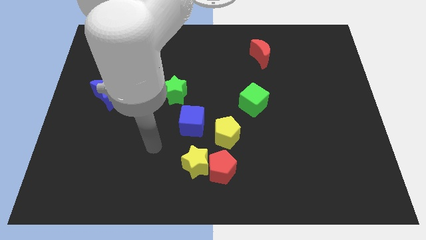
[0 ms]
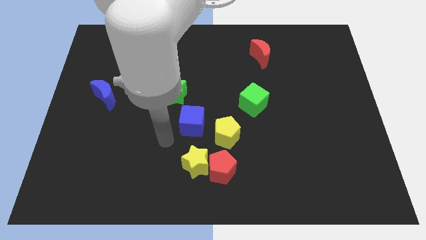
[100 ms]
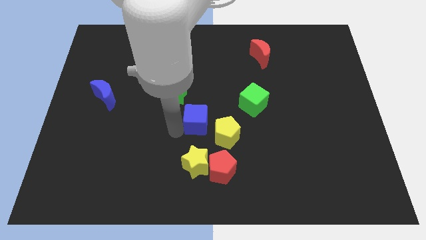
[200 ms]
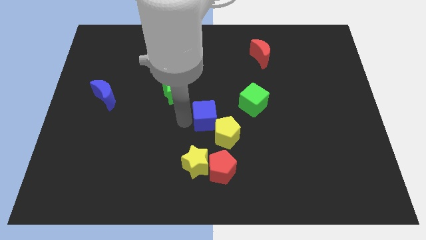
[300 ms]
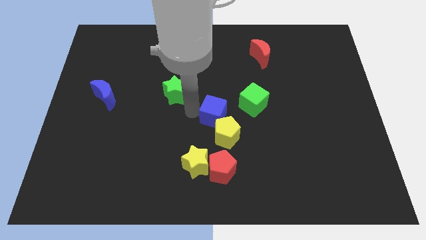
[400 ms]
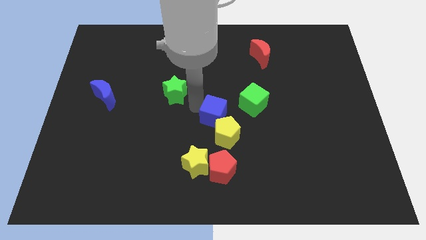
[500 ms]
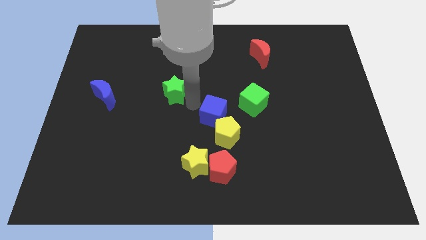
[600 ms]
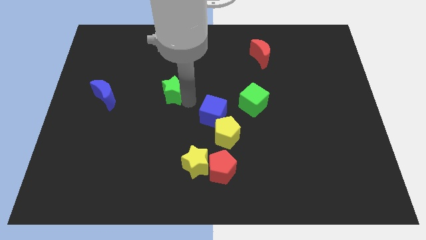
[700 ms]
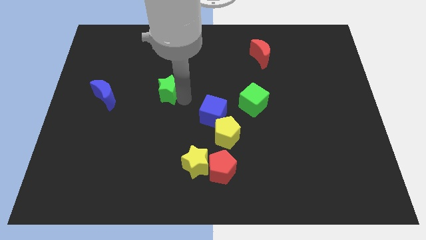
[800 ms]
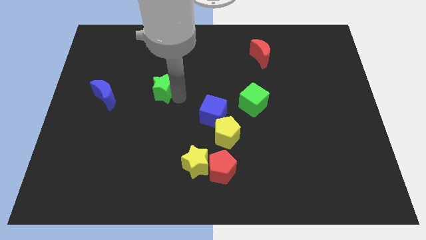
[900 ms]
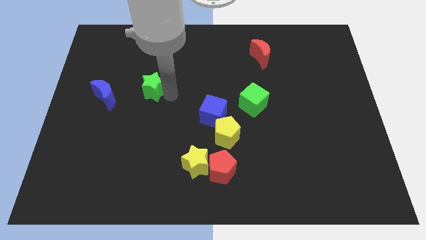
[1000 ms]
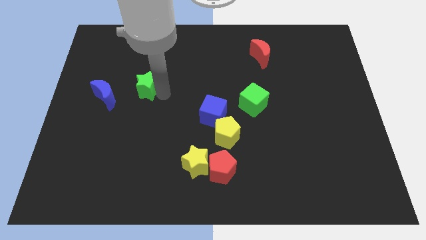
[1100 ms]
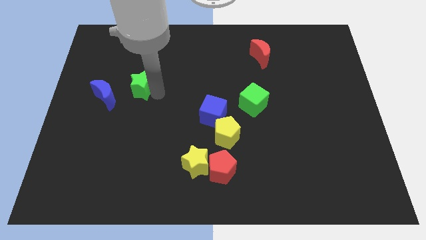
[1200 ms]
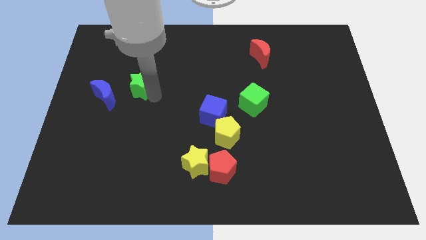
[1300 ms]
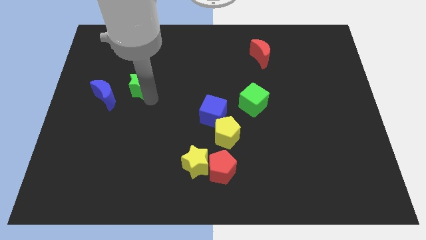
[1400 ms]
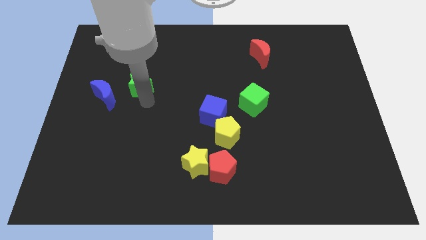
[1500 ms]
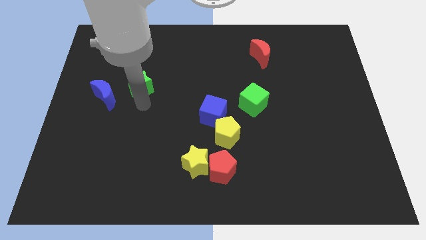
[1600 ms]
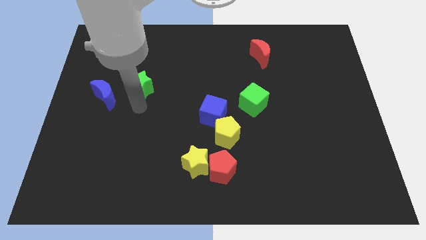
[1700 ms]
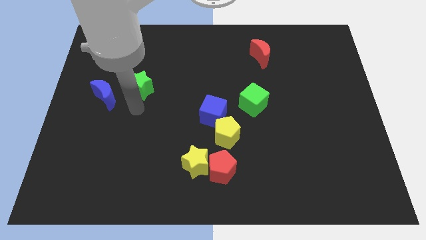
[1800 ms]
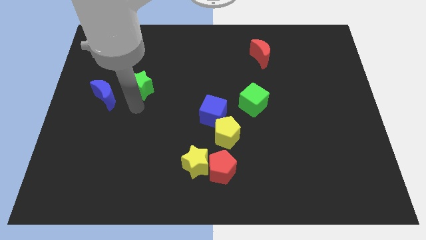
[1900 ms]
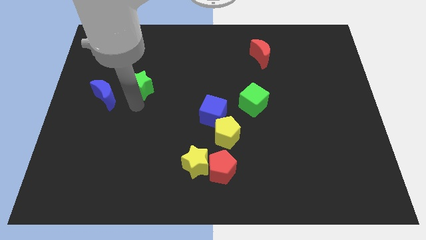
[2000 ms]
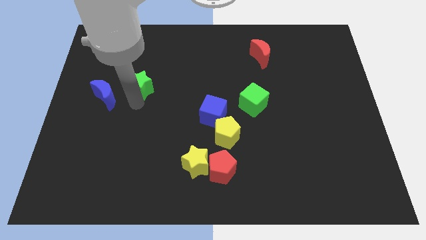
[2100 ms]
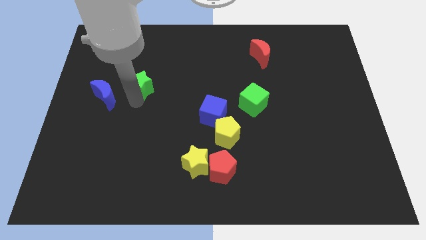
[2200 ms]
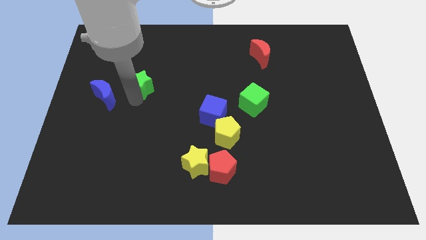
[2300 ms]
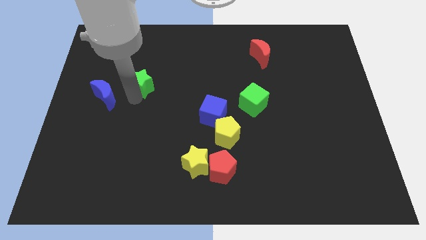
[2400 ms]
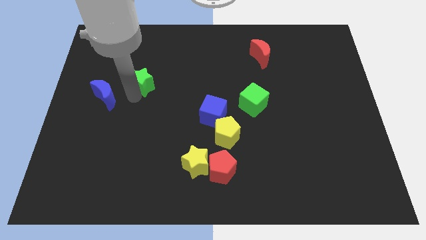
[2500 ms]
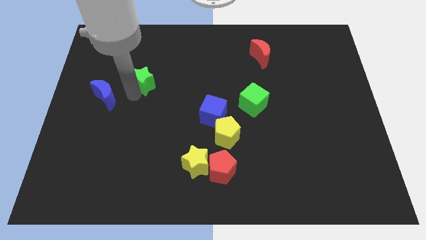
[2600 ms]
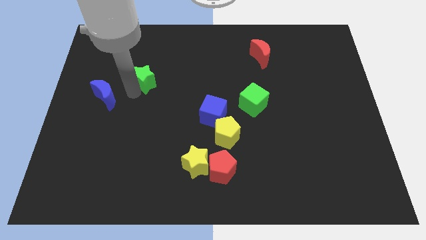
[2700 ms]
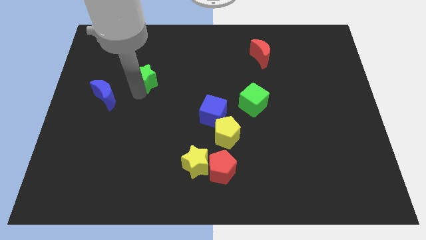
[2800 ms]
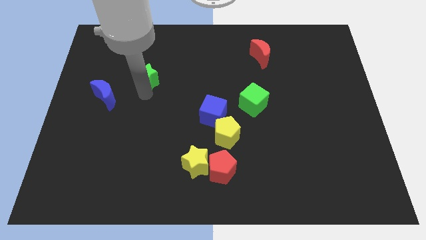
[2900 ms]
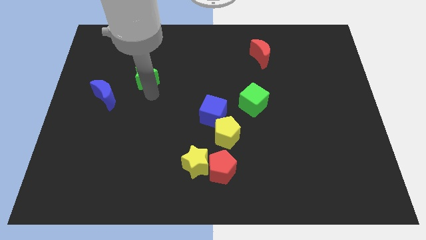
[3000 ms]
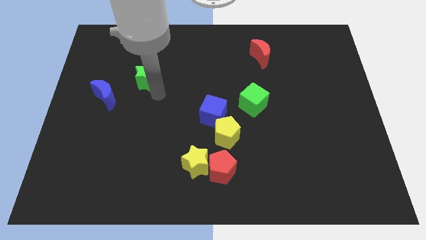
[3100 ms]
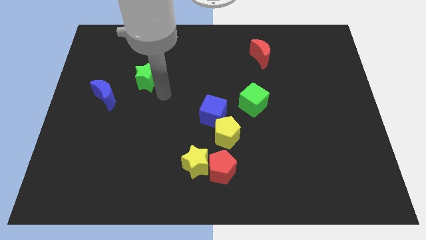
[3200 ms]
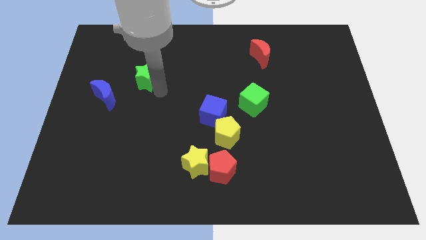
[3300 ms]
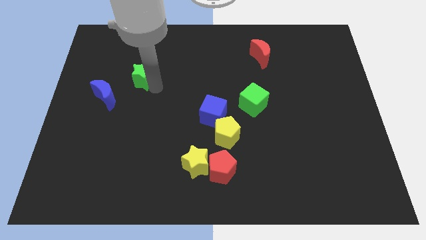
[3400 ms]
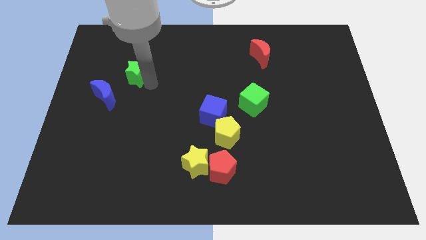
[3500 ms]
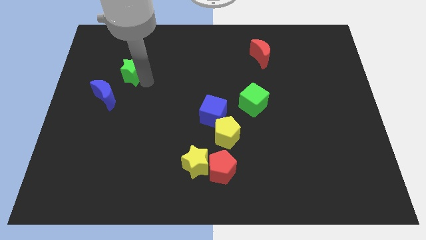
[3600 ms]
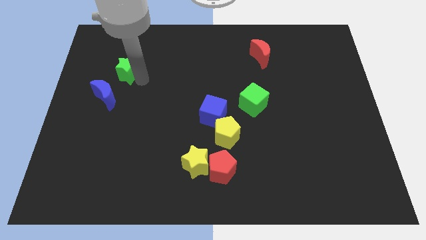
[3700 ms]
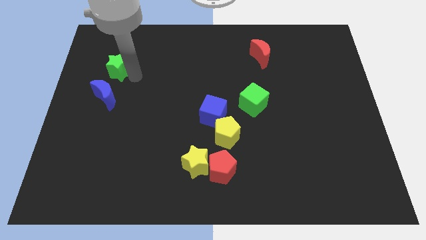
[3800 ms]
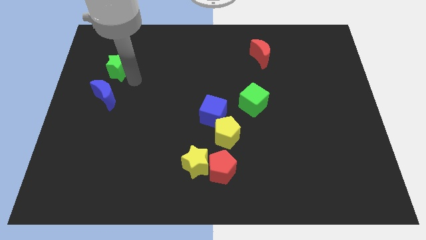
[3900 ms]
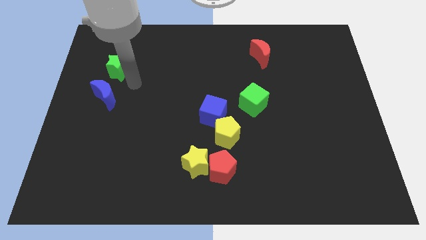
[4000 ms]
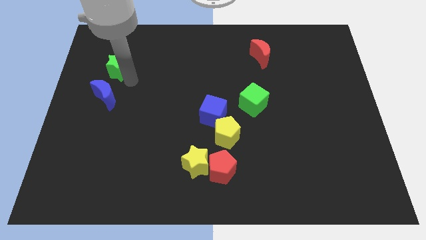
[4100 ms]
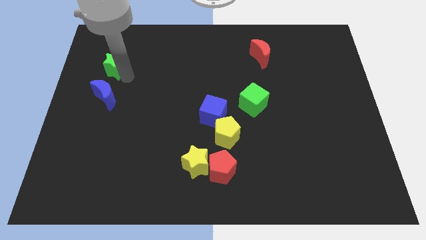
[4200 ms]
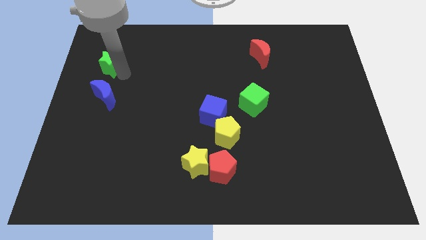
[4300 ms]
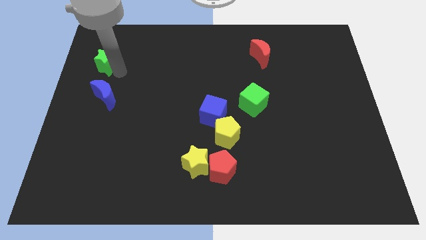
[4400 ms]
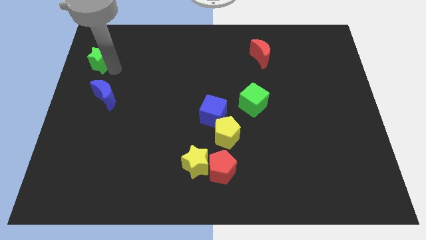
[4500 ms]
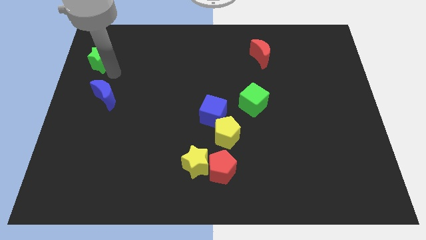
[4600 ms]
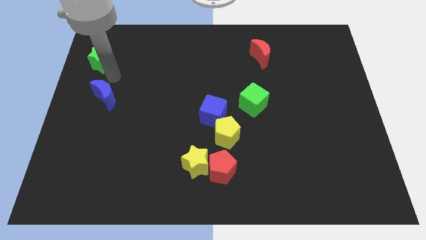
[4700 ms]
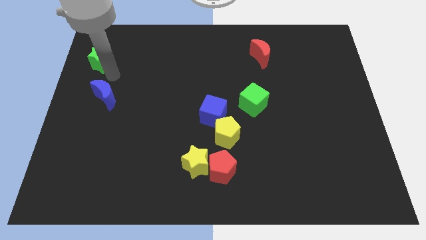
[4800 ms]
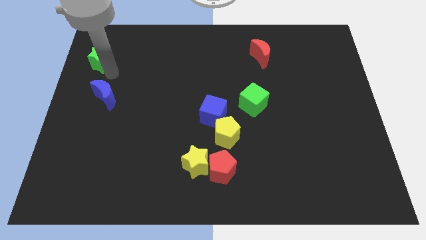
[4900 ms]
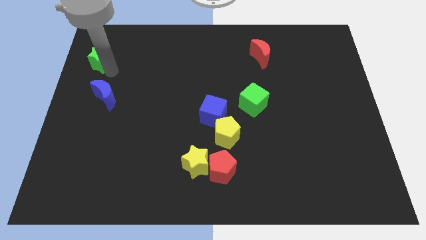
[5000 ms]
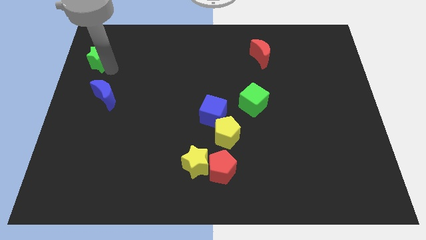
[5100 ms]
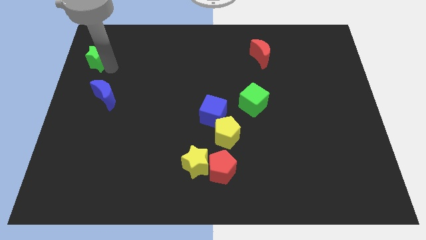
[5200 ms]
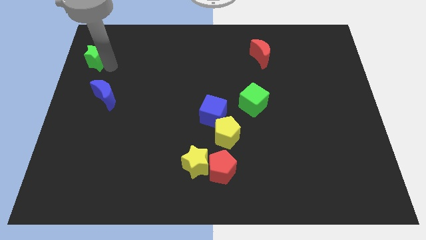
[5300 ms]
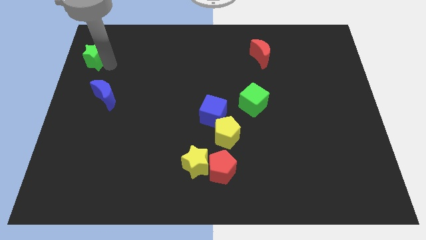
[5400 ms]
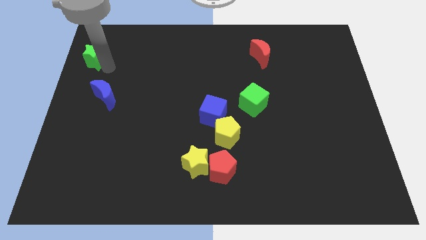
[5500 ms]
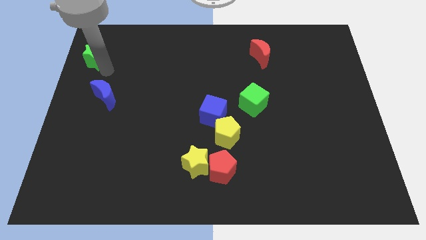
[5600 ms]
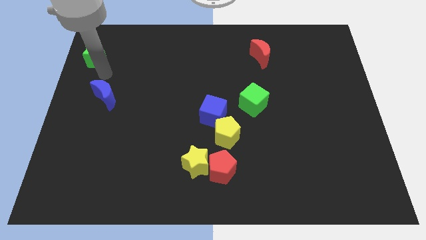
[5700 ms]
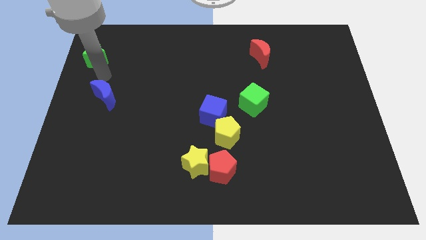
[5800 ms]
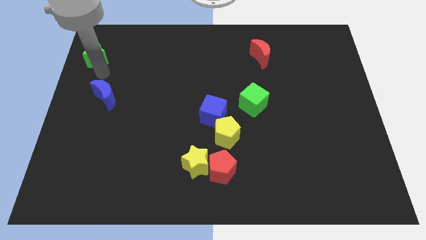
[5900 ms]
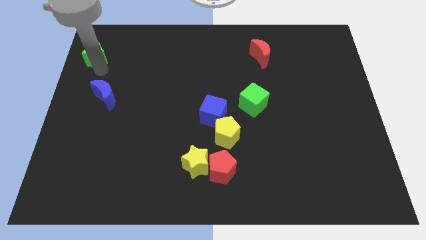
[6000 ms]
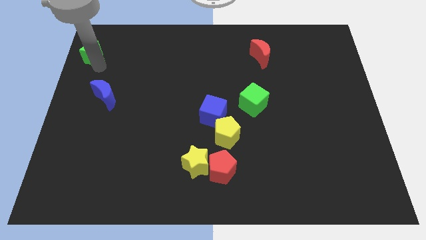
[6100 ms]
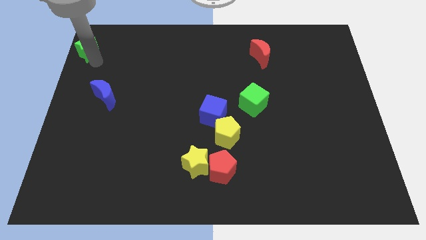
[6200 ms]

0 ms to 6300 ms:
put the green star to the top left corner
